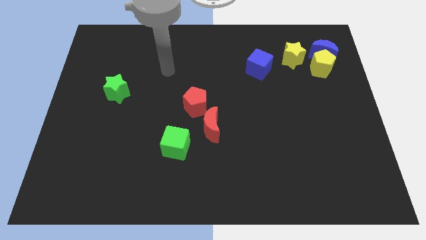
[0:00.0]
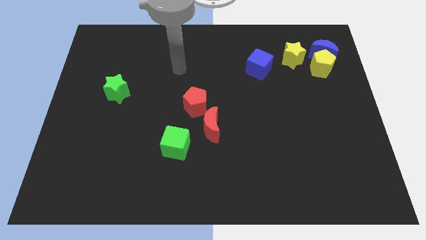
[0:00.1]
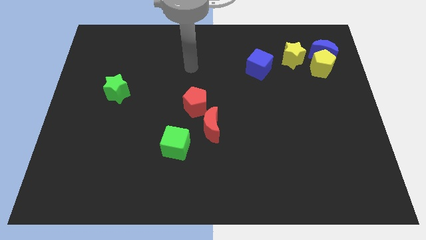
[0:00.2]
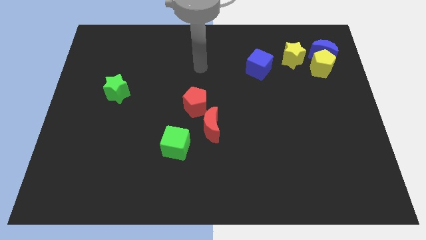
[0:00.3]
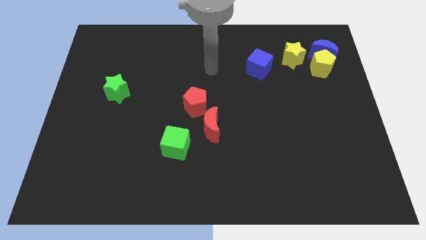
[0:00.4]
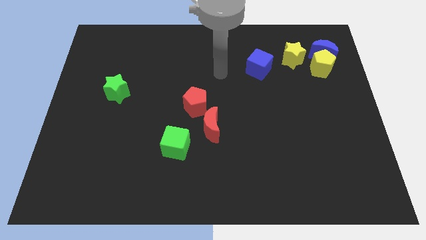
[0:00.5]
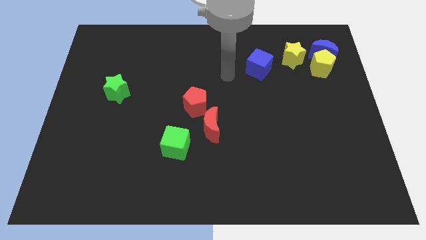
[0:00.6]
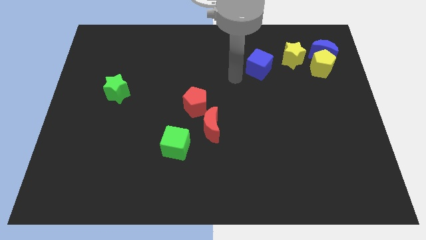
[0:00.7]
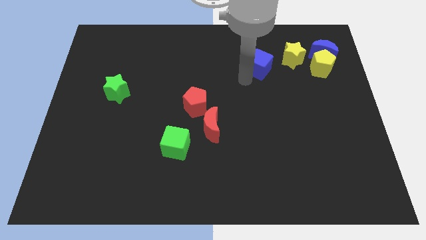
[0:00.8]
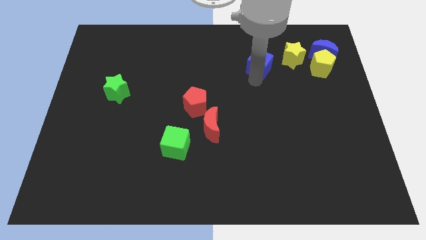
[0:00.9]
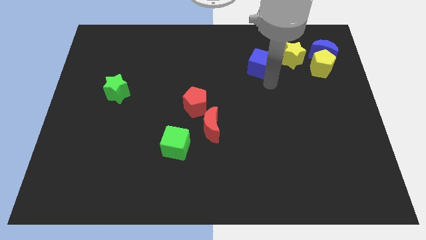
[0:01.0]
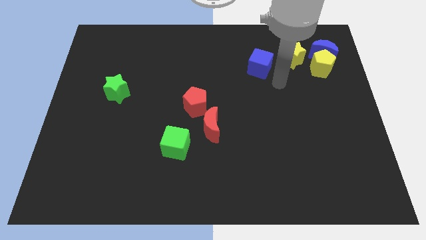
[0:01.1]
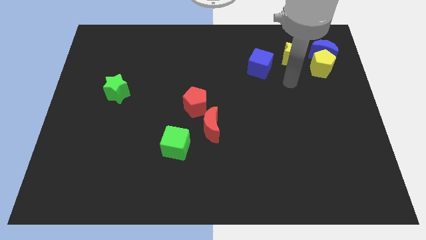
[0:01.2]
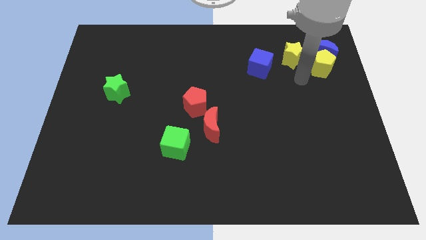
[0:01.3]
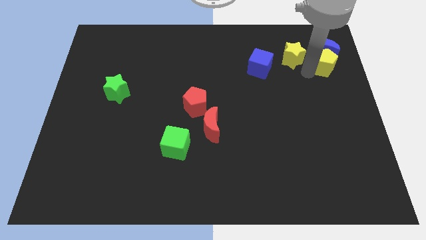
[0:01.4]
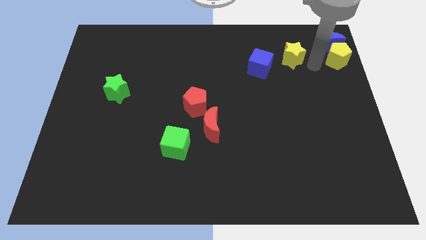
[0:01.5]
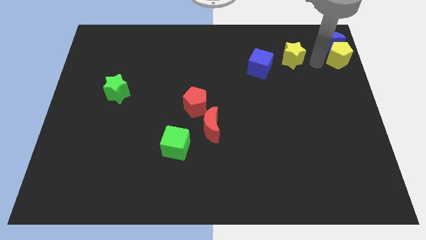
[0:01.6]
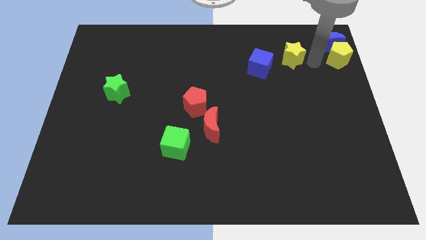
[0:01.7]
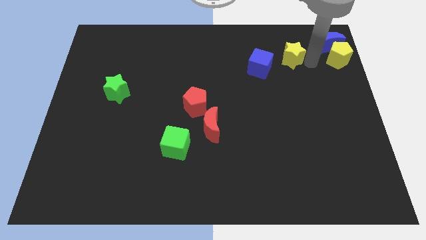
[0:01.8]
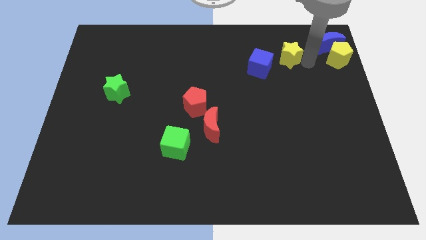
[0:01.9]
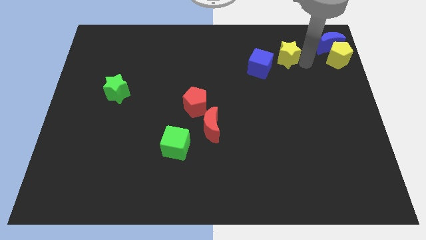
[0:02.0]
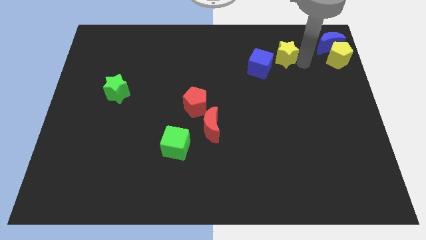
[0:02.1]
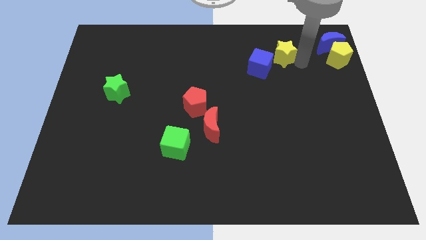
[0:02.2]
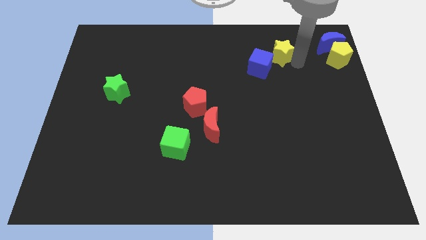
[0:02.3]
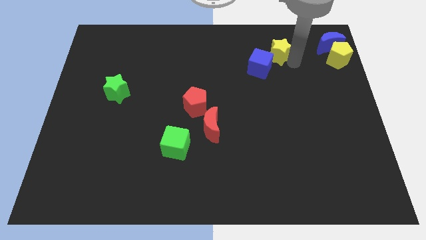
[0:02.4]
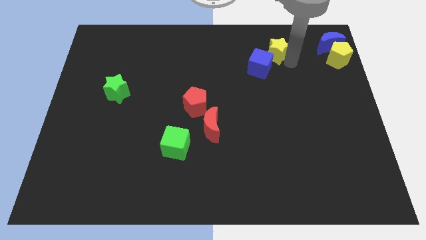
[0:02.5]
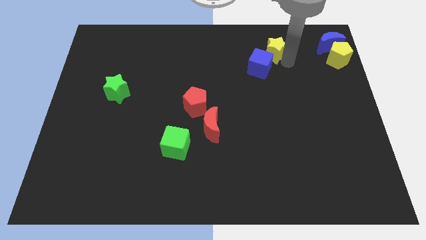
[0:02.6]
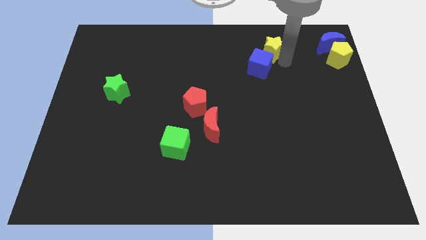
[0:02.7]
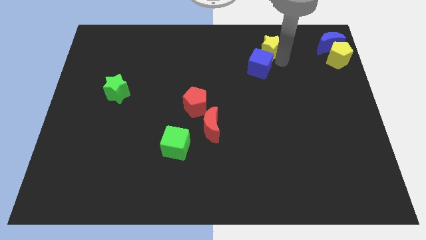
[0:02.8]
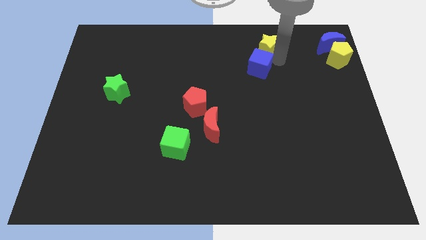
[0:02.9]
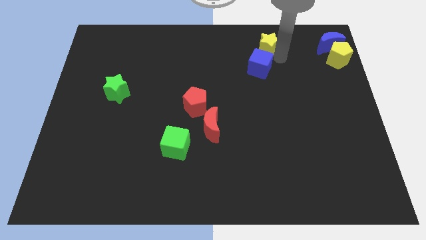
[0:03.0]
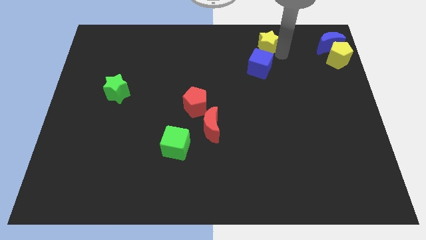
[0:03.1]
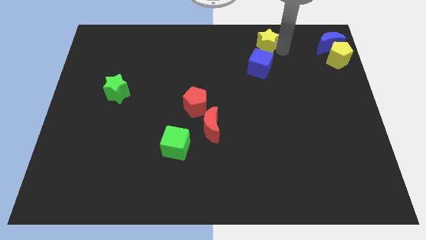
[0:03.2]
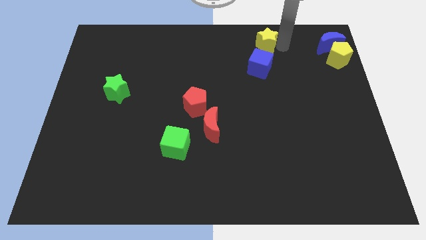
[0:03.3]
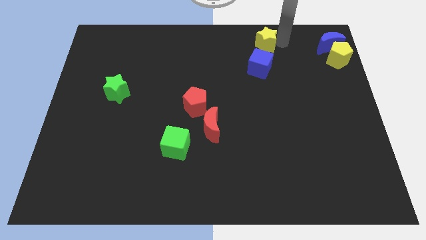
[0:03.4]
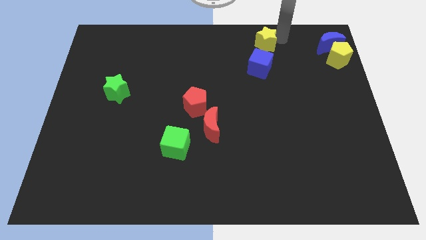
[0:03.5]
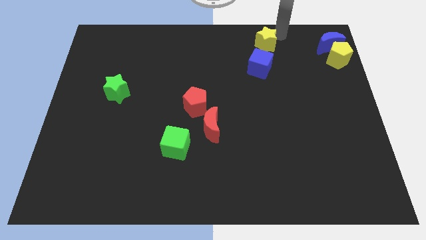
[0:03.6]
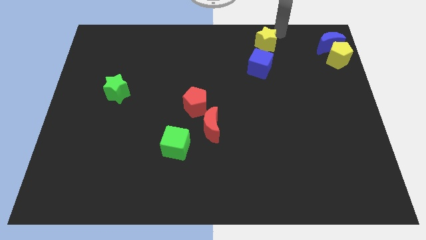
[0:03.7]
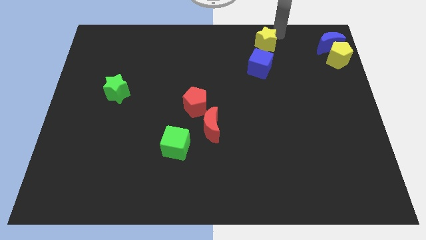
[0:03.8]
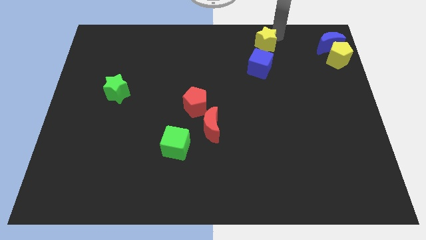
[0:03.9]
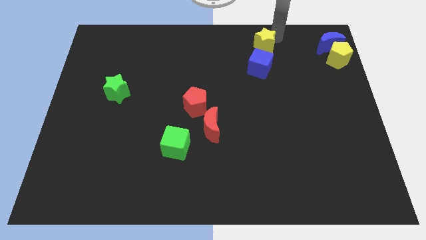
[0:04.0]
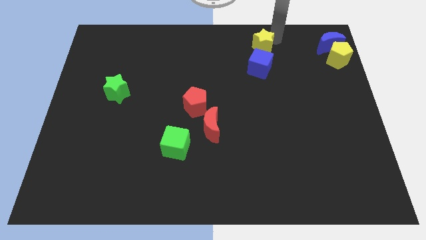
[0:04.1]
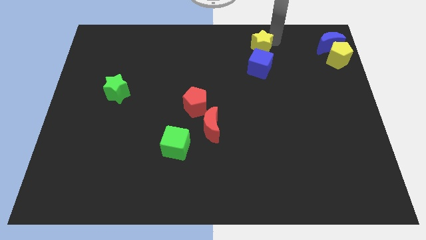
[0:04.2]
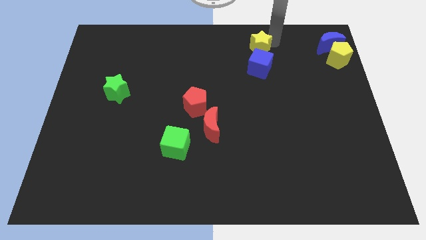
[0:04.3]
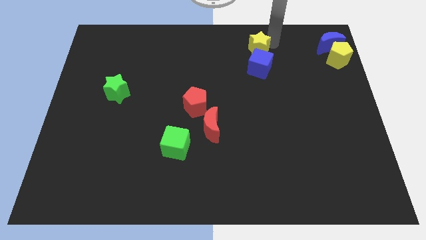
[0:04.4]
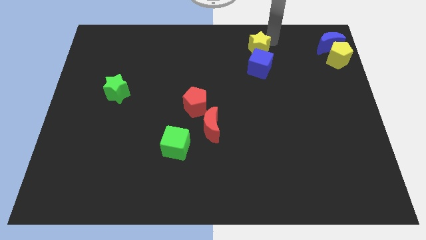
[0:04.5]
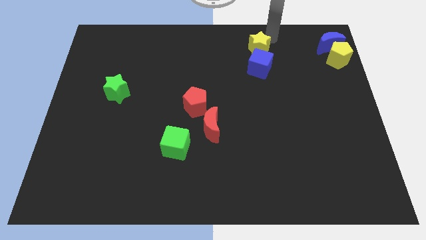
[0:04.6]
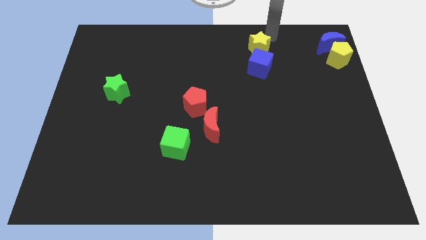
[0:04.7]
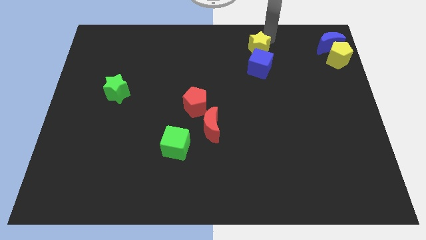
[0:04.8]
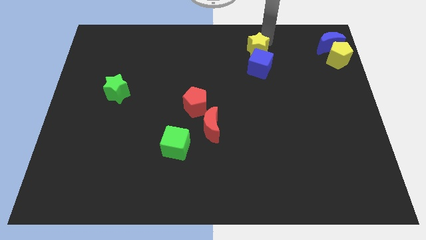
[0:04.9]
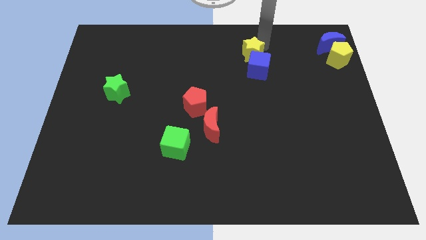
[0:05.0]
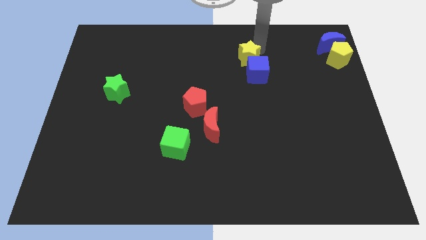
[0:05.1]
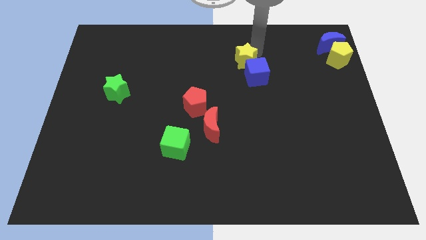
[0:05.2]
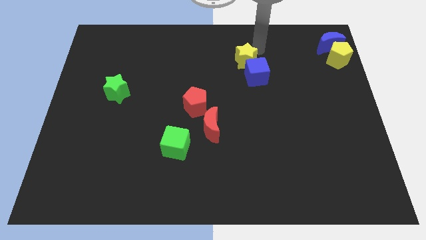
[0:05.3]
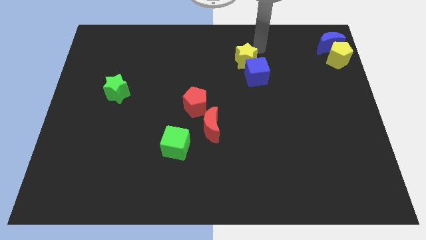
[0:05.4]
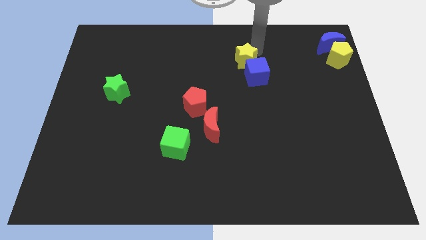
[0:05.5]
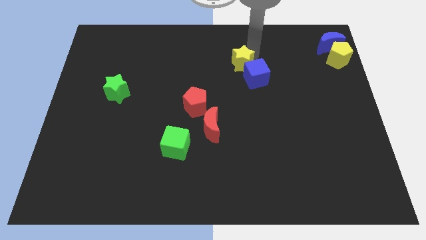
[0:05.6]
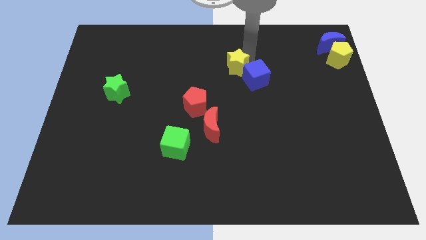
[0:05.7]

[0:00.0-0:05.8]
push the yellow star to the center of the board

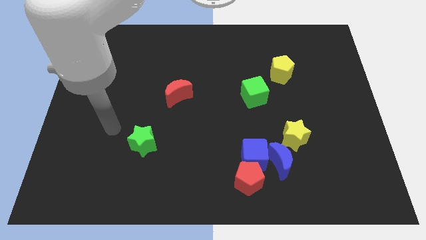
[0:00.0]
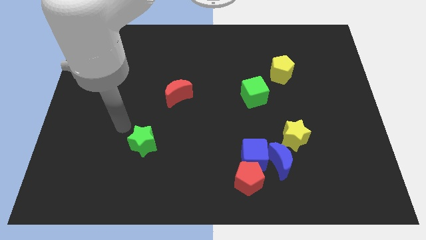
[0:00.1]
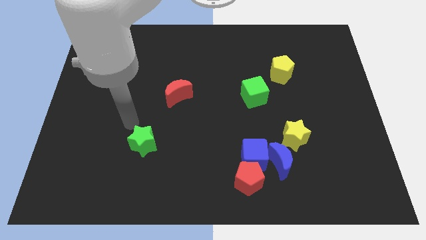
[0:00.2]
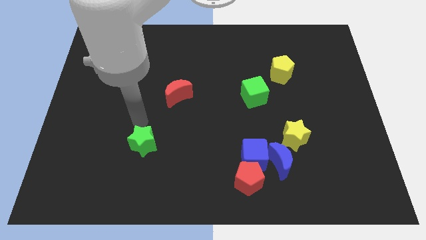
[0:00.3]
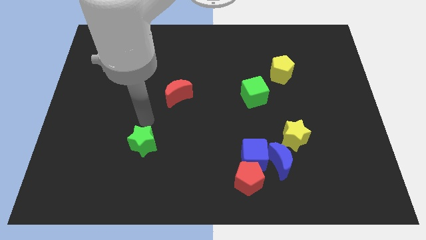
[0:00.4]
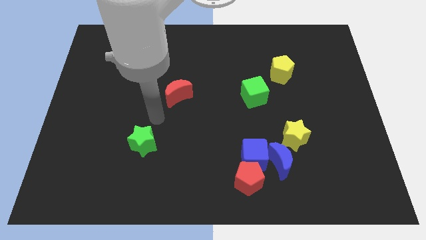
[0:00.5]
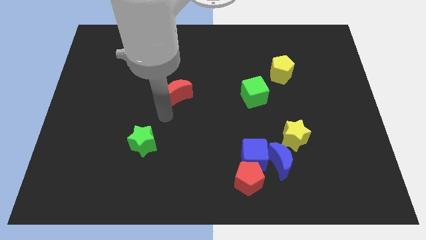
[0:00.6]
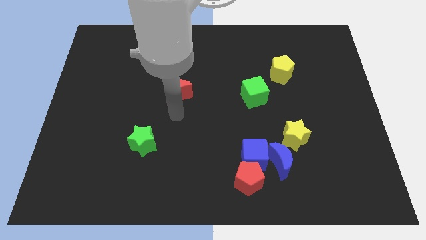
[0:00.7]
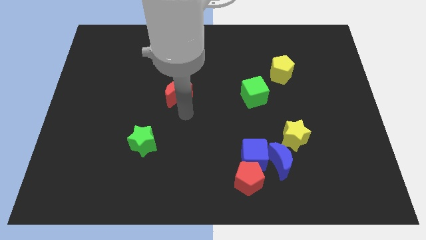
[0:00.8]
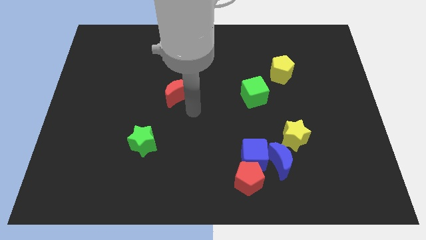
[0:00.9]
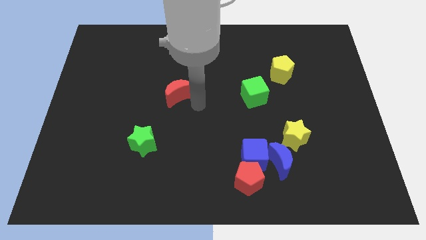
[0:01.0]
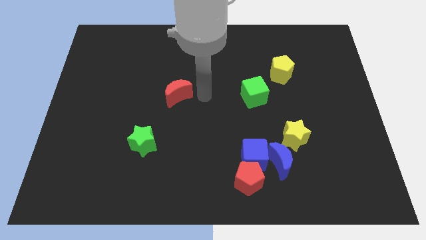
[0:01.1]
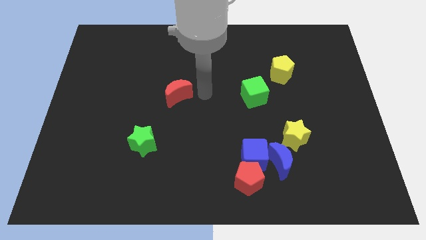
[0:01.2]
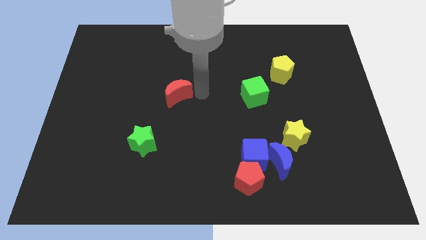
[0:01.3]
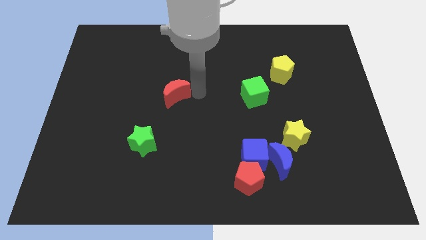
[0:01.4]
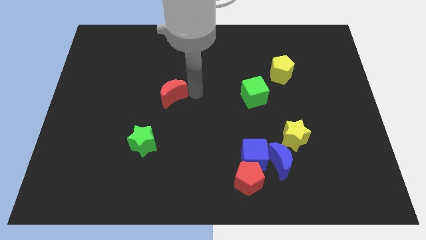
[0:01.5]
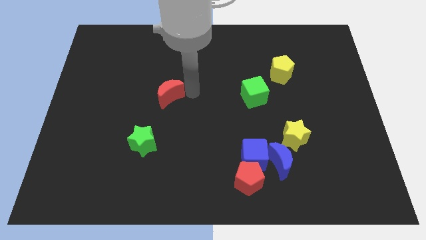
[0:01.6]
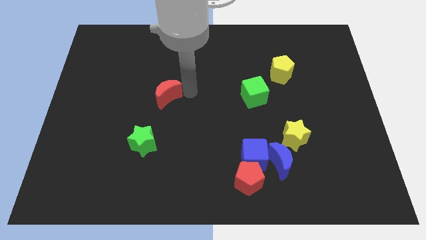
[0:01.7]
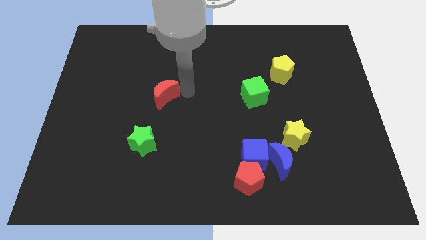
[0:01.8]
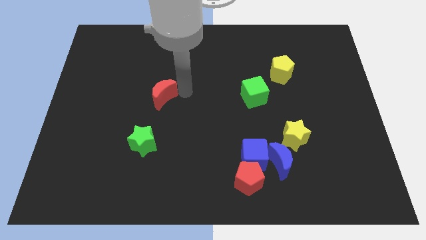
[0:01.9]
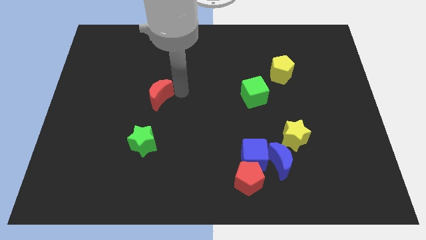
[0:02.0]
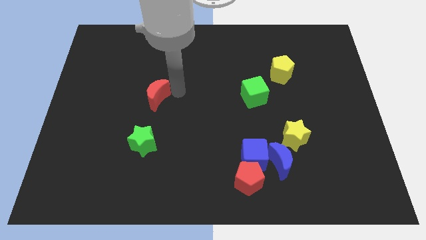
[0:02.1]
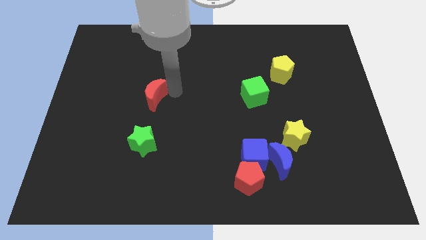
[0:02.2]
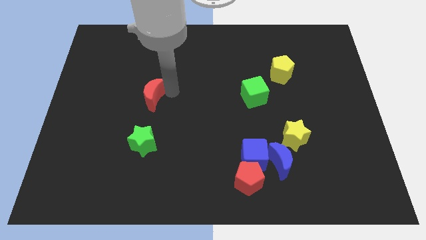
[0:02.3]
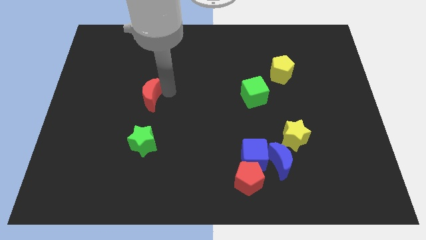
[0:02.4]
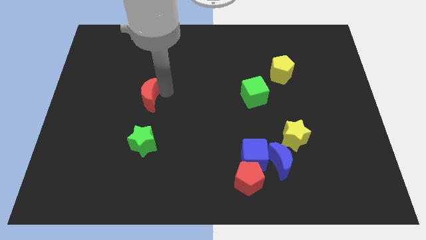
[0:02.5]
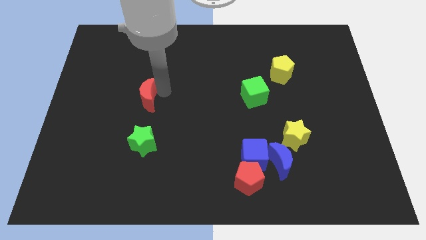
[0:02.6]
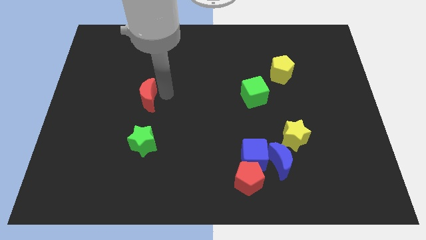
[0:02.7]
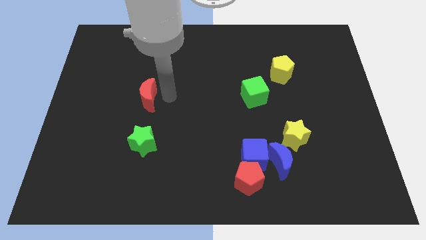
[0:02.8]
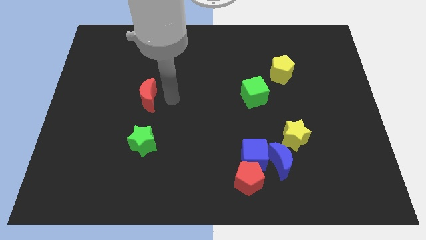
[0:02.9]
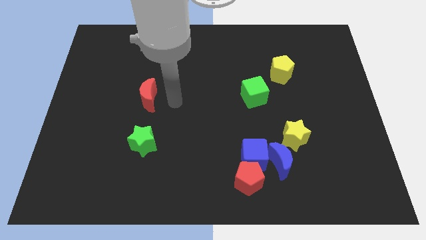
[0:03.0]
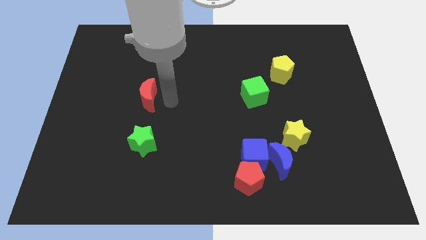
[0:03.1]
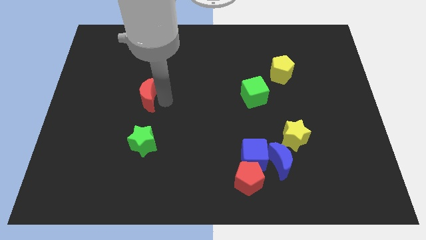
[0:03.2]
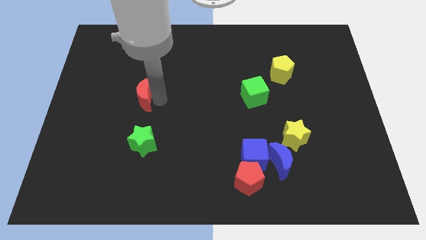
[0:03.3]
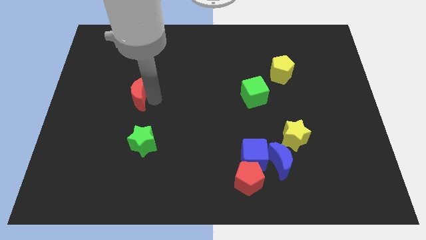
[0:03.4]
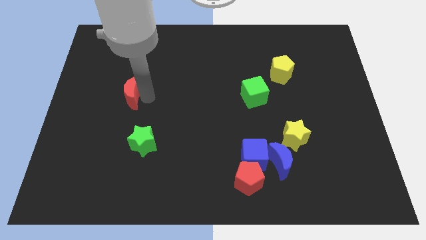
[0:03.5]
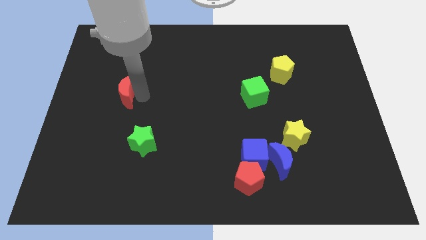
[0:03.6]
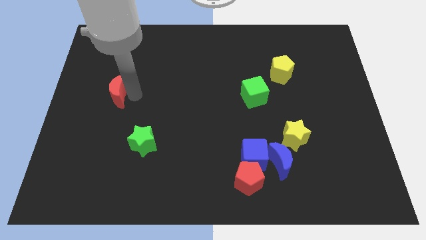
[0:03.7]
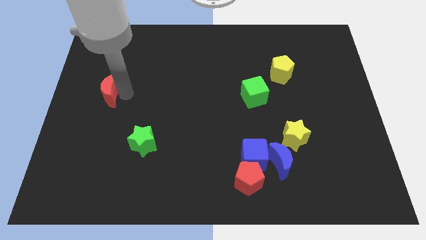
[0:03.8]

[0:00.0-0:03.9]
push the red moon to the left side of the board
